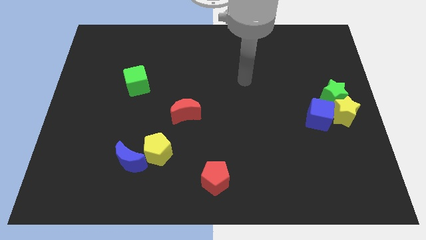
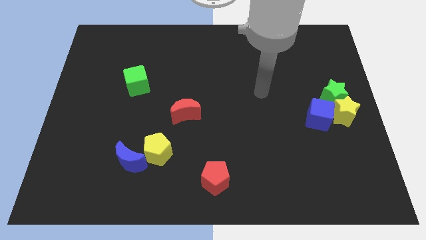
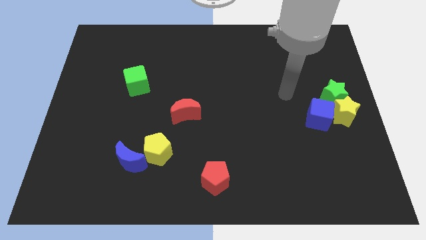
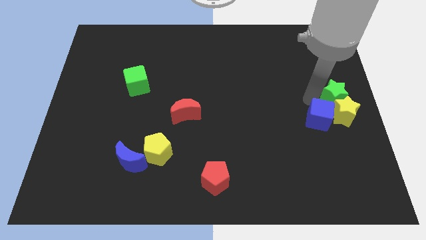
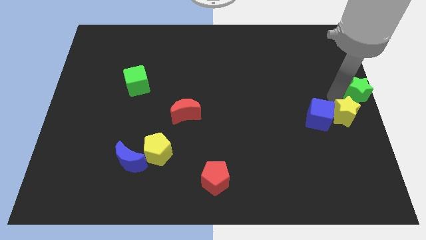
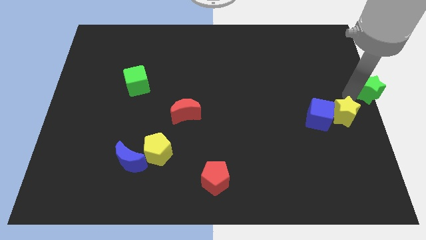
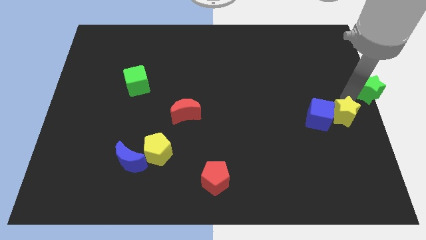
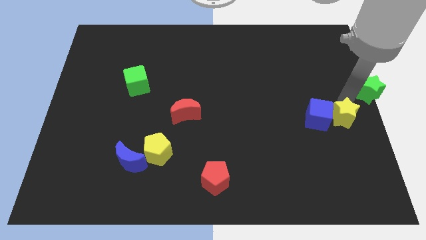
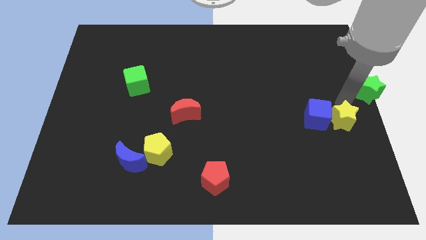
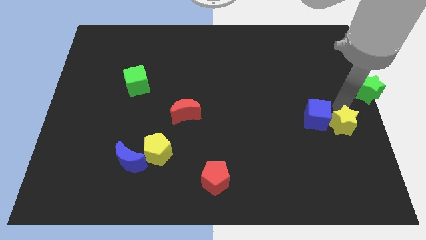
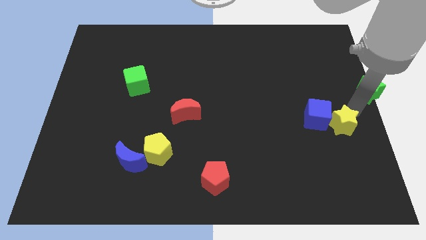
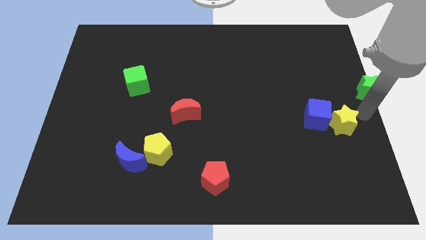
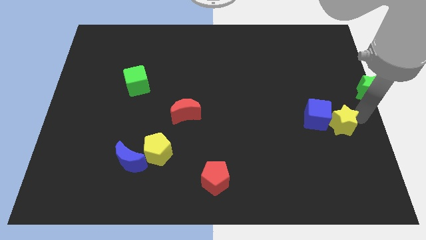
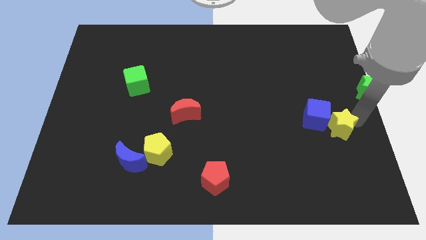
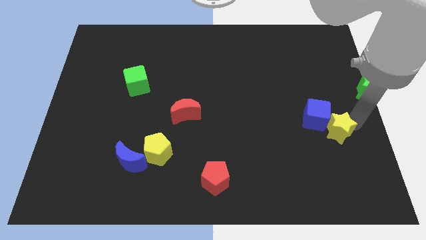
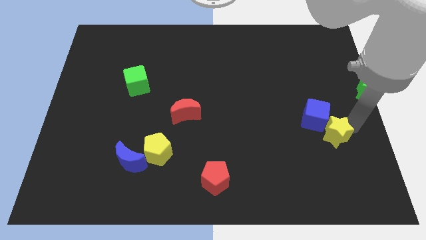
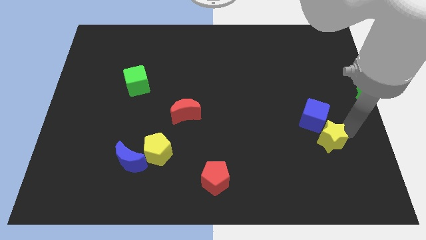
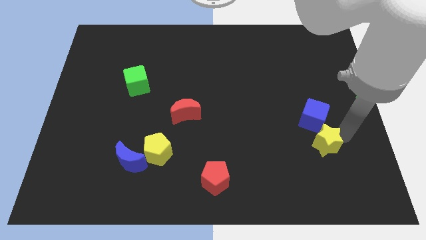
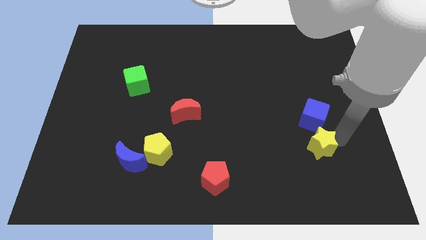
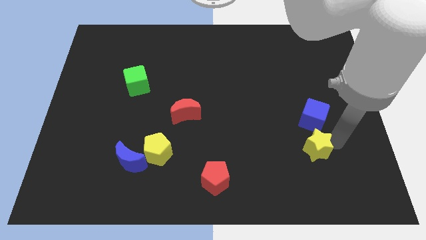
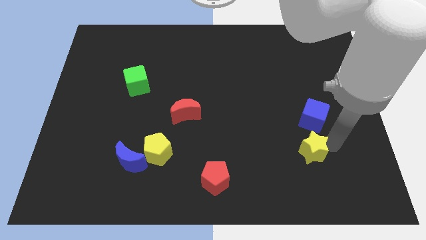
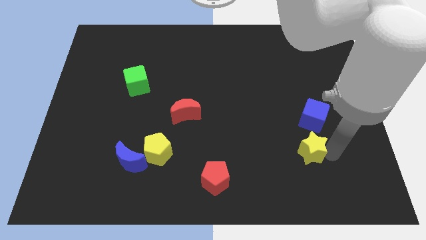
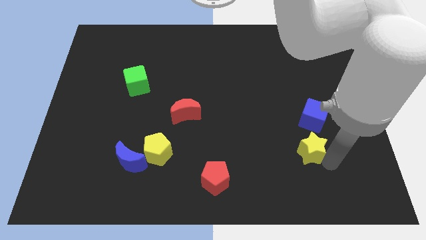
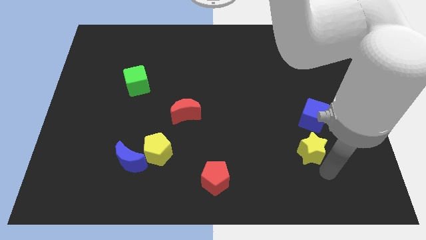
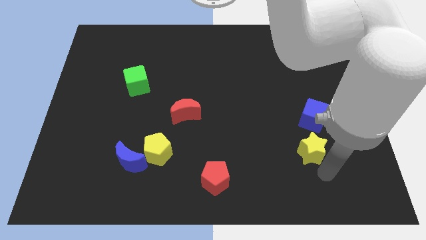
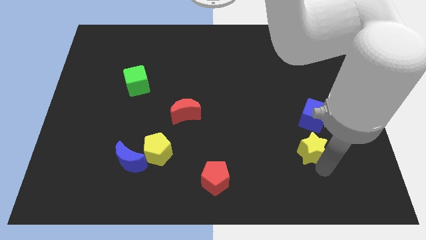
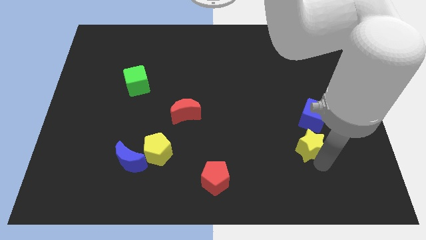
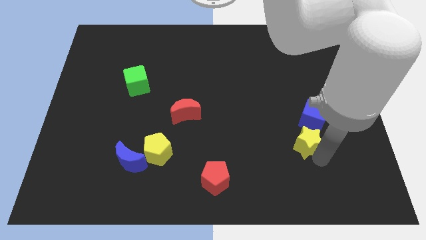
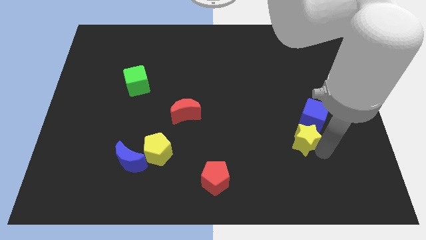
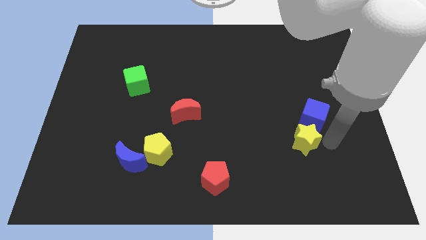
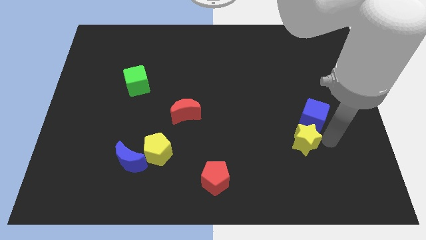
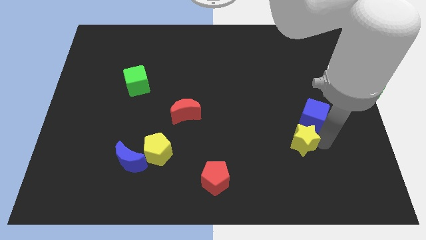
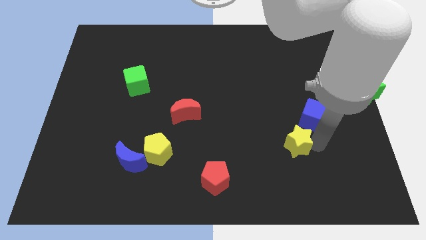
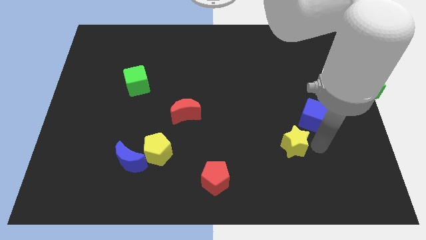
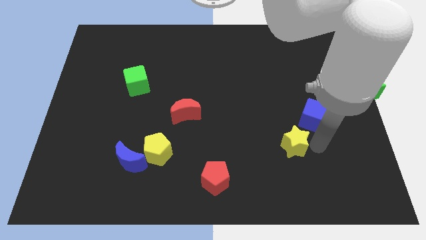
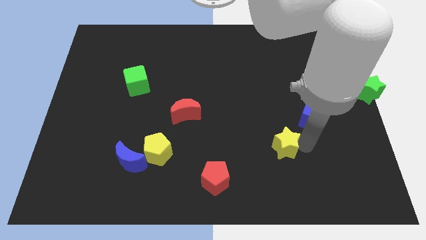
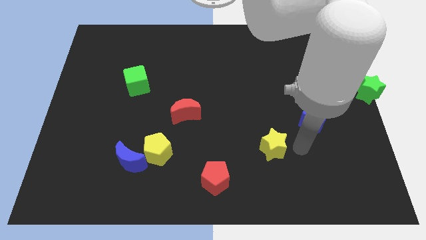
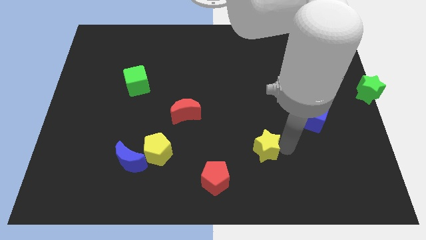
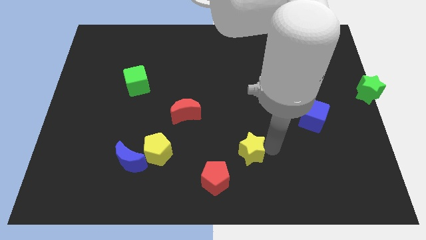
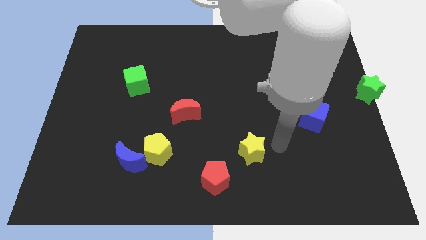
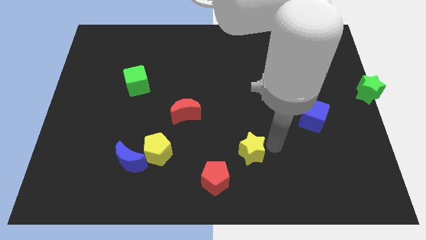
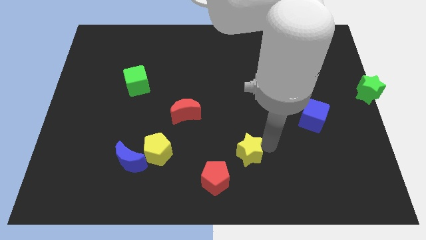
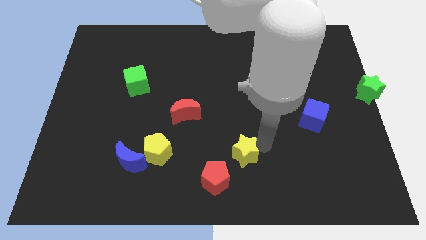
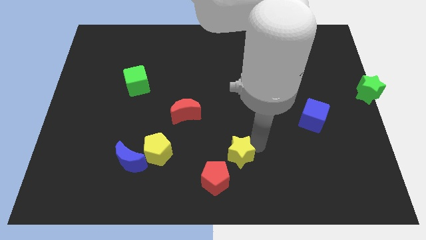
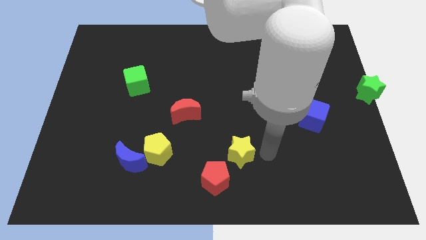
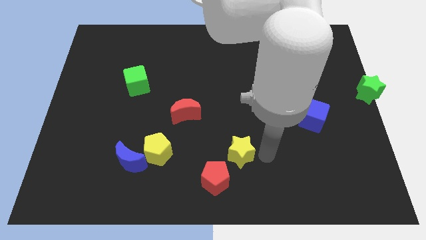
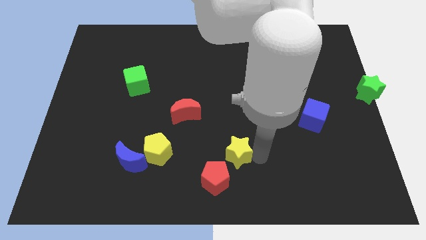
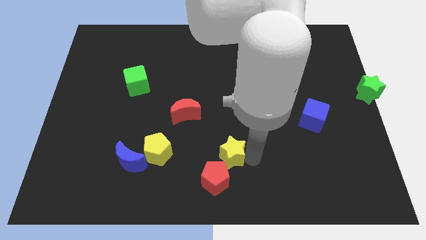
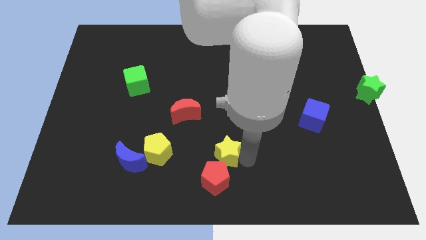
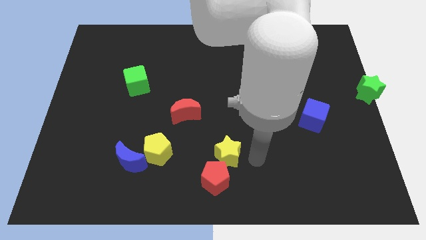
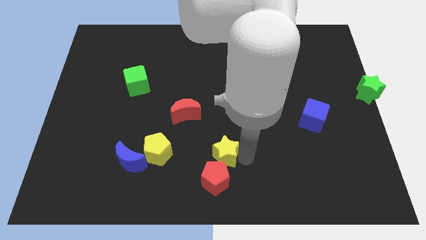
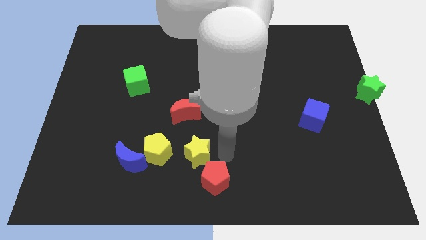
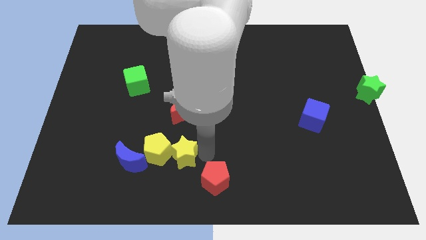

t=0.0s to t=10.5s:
push the yellow star to the yellow pentagon

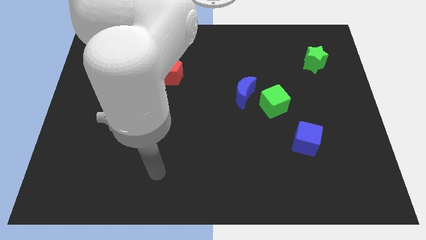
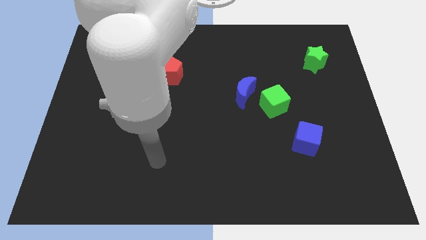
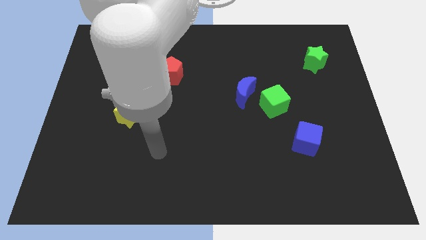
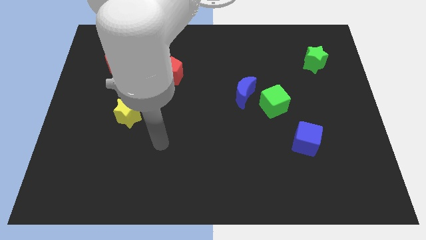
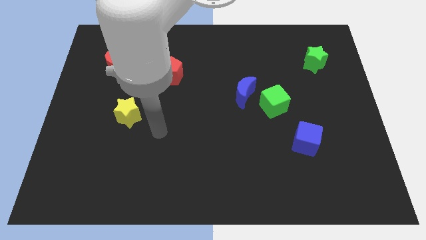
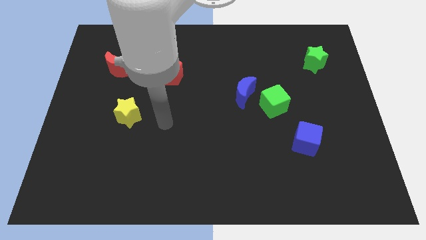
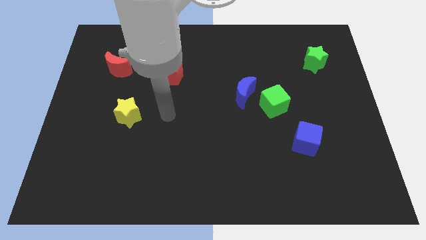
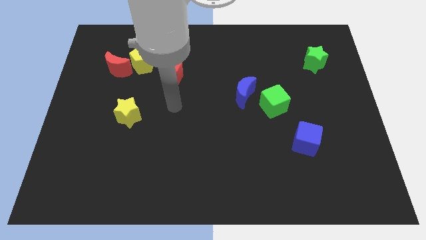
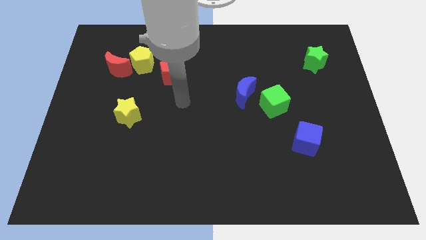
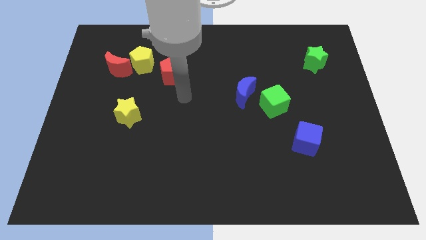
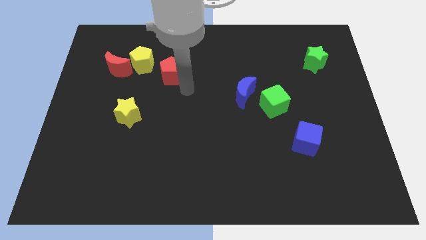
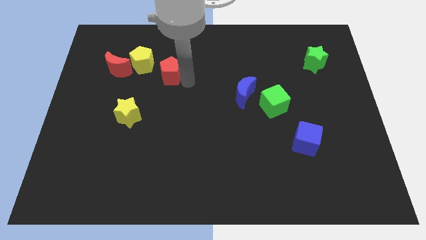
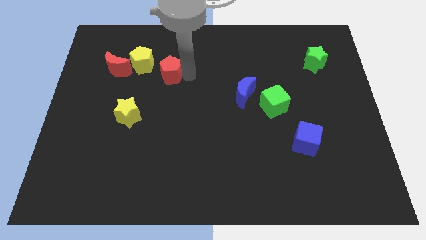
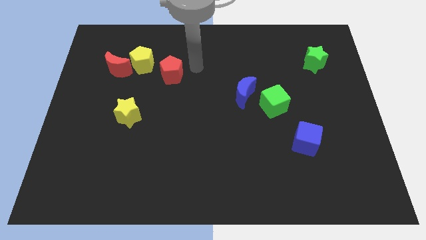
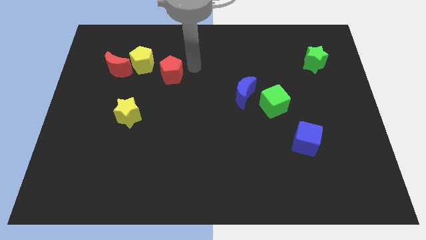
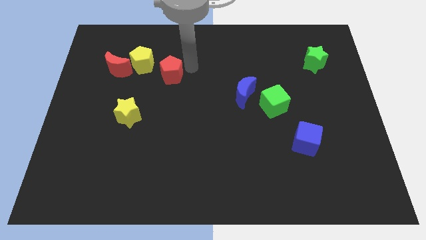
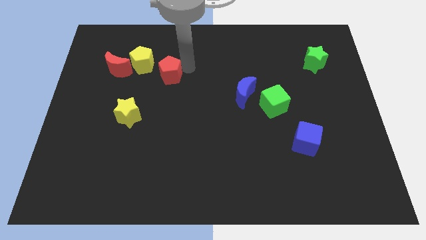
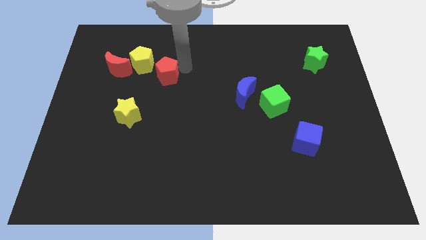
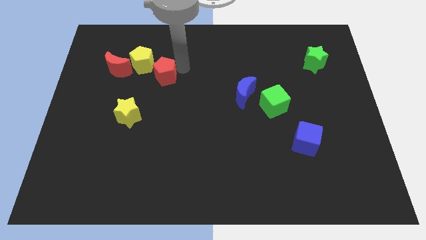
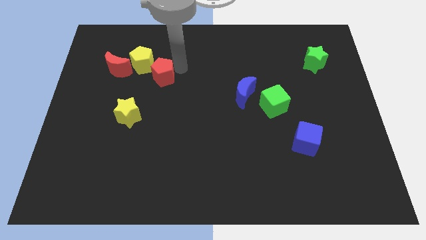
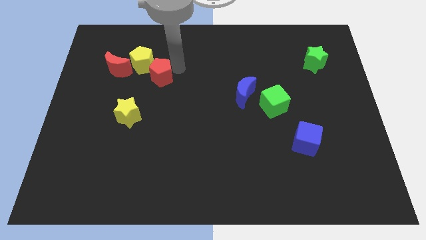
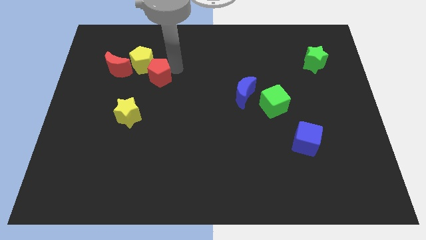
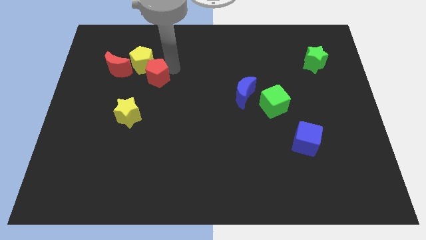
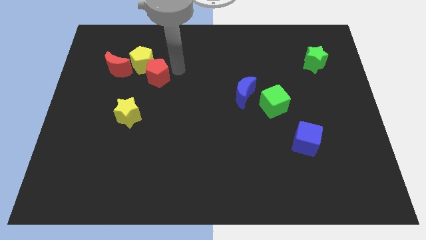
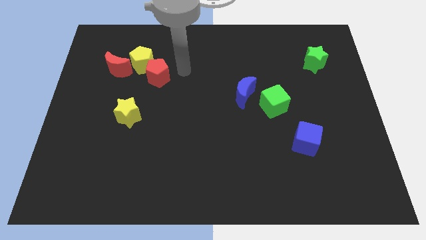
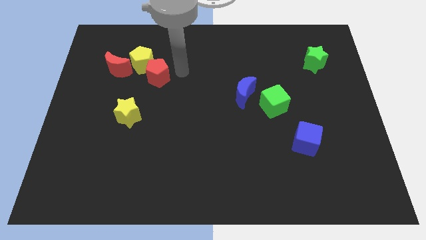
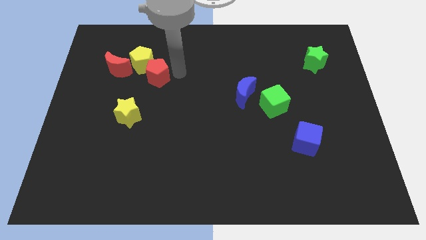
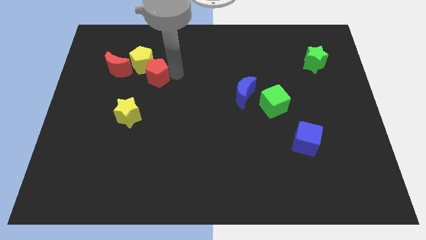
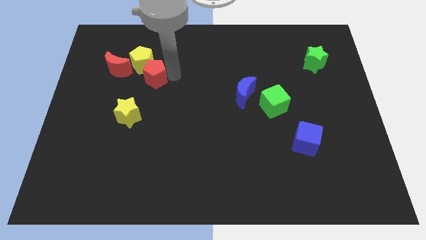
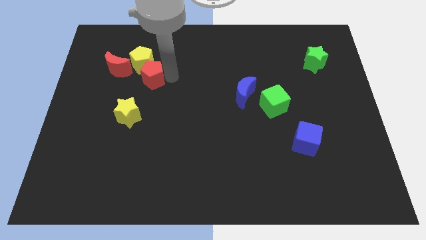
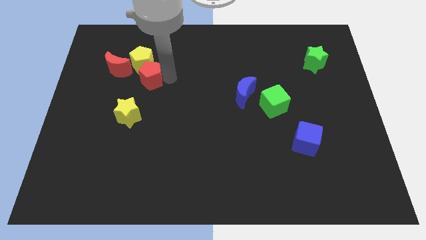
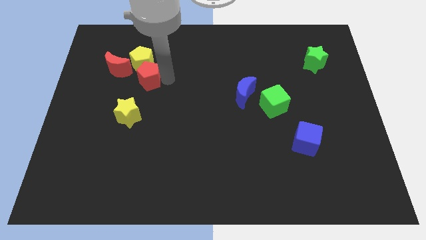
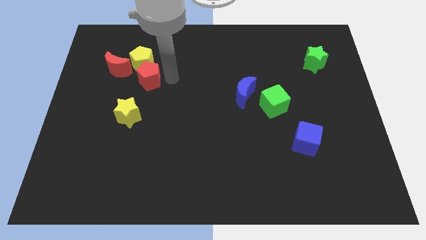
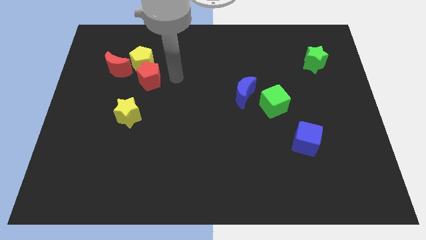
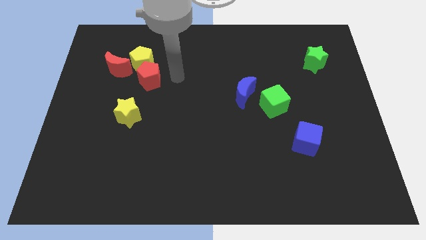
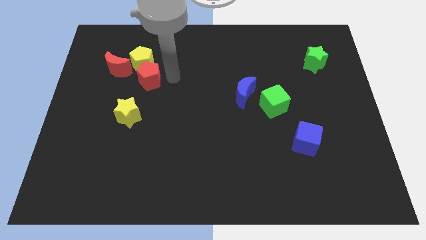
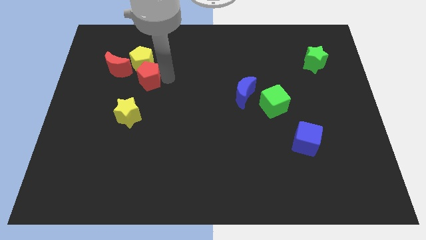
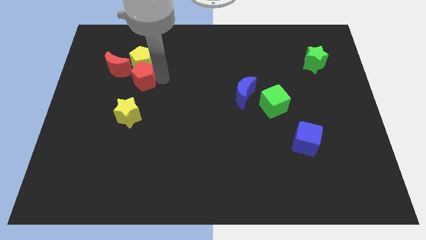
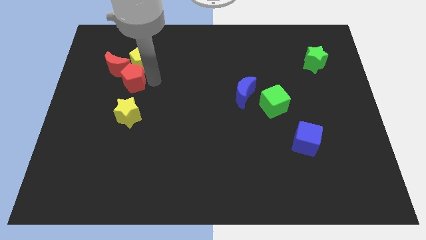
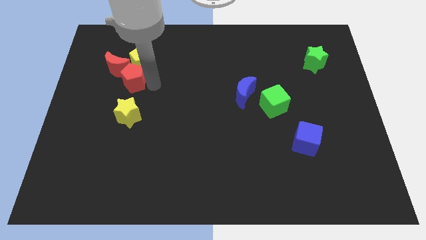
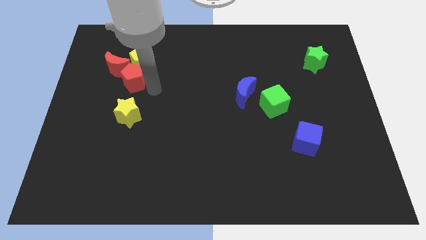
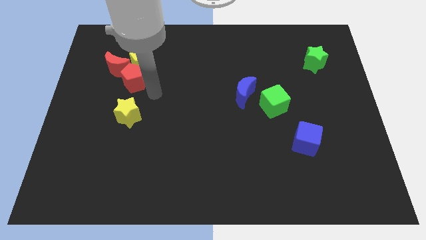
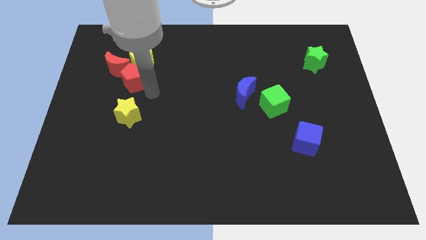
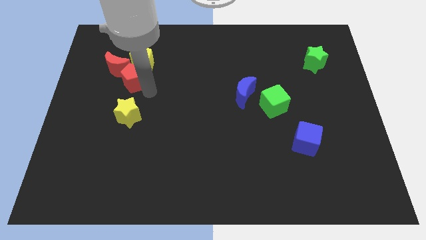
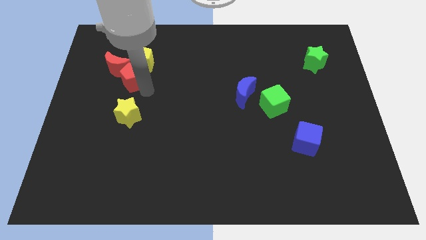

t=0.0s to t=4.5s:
put the red pentagon towards the red moon
